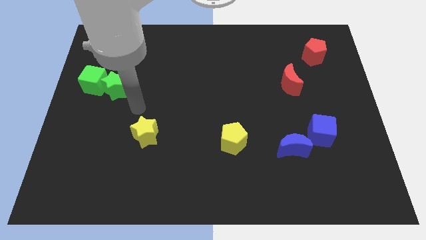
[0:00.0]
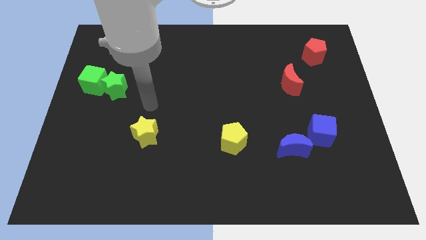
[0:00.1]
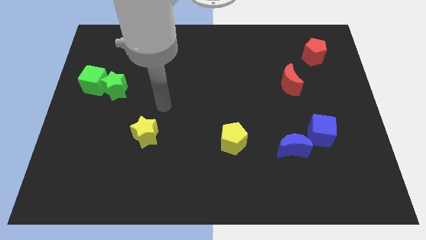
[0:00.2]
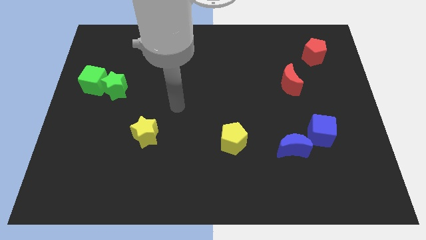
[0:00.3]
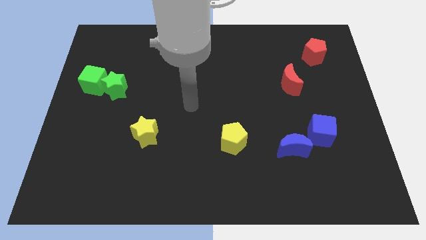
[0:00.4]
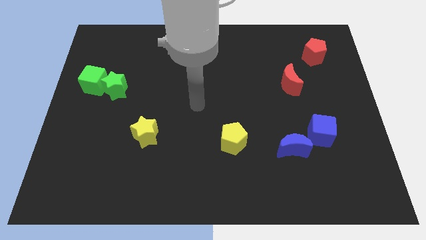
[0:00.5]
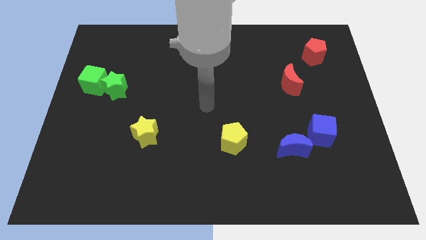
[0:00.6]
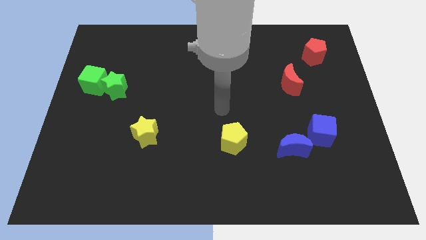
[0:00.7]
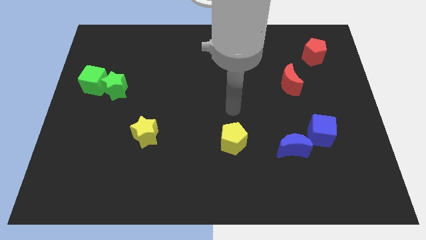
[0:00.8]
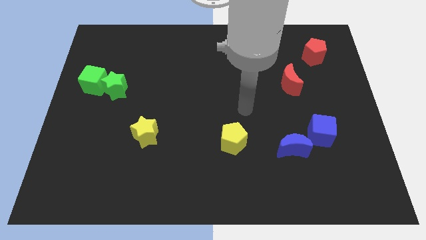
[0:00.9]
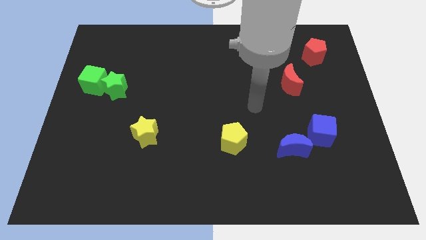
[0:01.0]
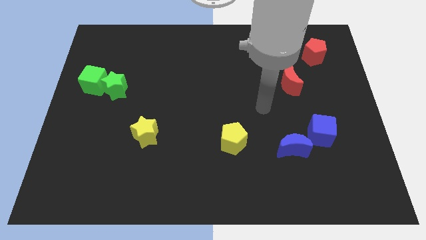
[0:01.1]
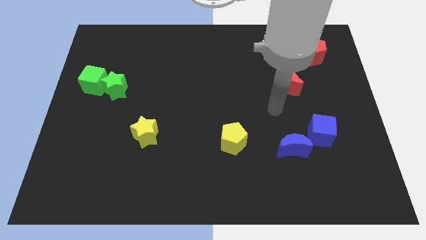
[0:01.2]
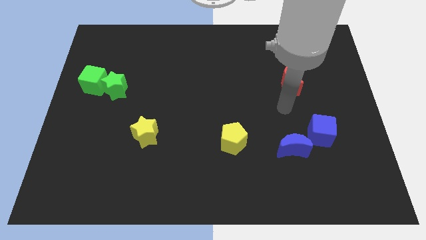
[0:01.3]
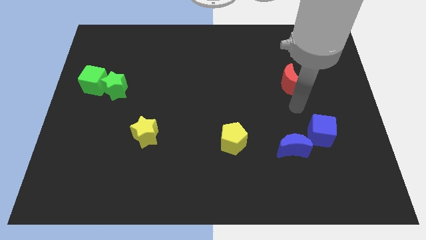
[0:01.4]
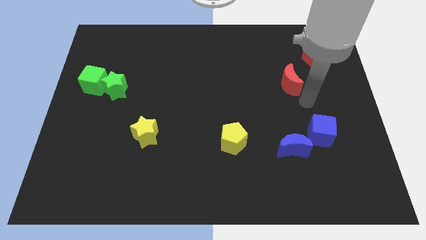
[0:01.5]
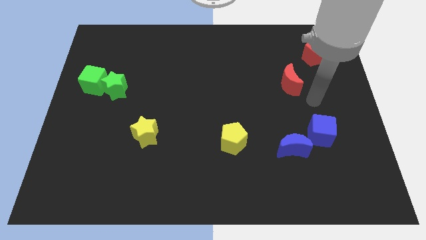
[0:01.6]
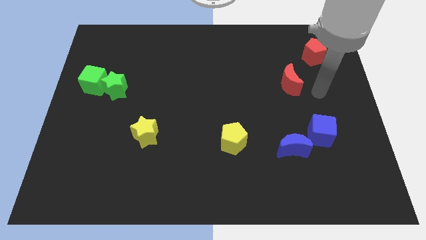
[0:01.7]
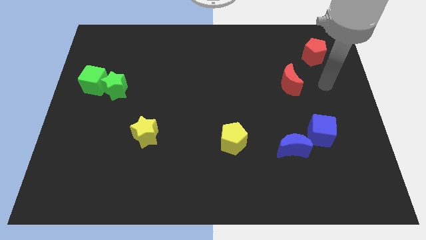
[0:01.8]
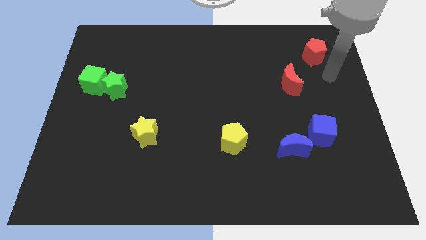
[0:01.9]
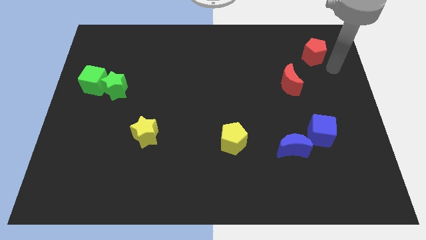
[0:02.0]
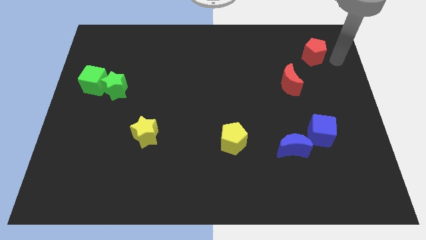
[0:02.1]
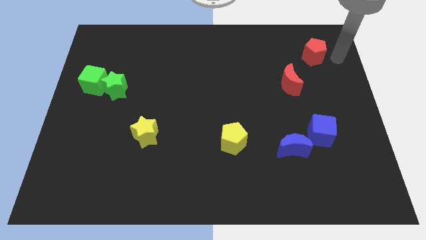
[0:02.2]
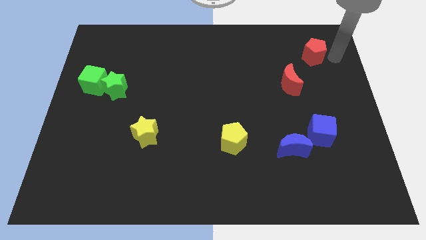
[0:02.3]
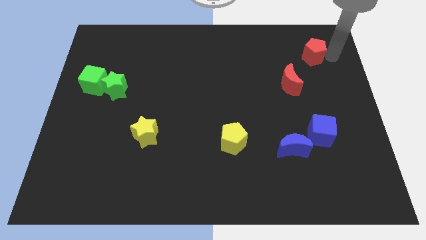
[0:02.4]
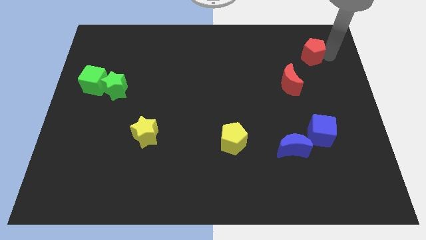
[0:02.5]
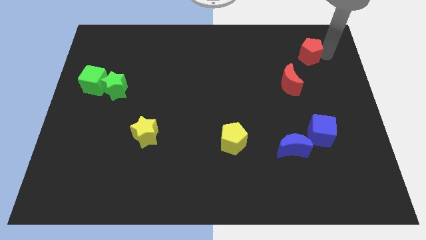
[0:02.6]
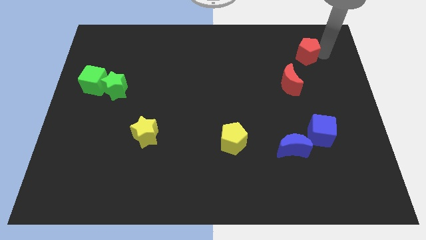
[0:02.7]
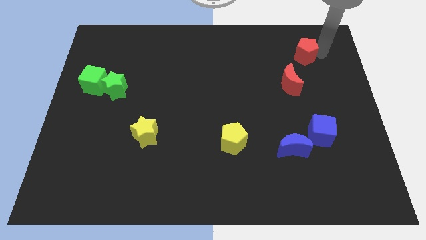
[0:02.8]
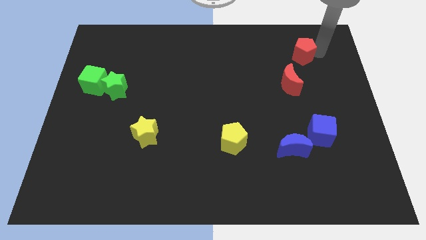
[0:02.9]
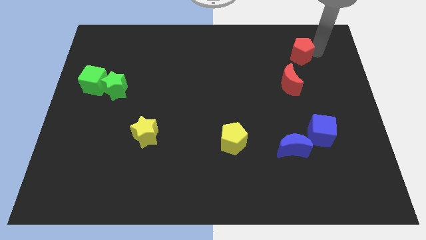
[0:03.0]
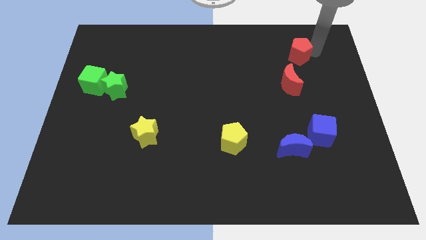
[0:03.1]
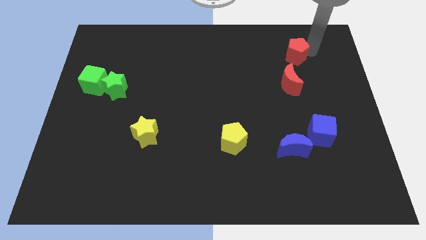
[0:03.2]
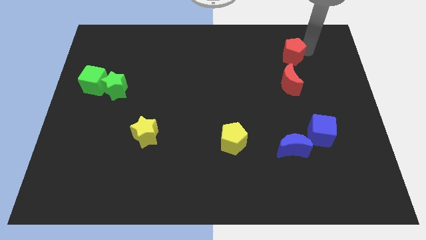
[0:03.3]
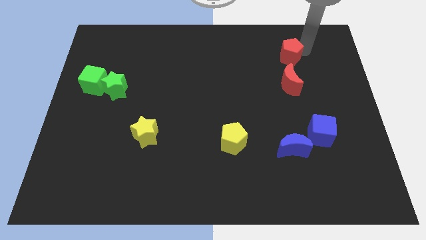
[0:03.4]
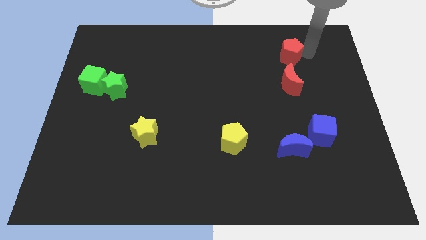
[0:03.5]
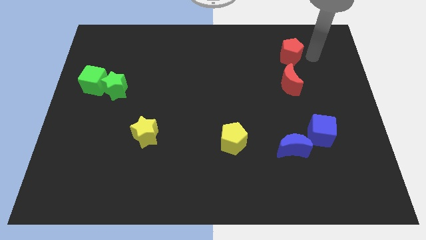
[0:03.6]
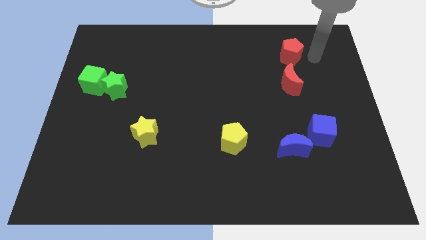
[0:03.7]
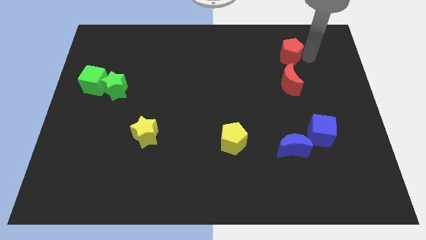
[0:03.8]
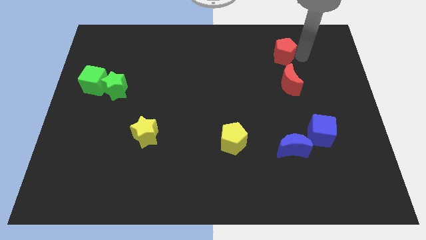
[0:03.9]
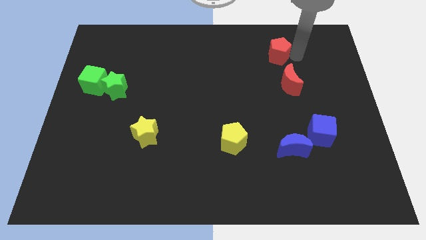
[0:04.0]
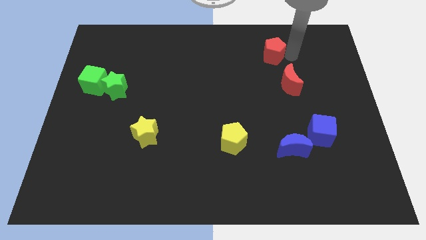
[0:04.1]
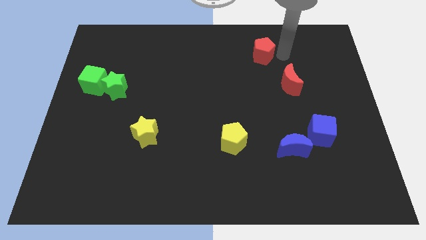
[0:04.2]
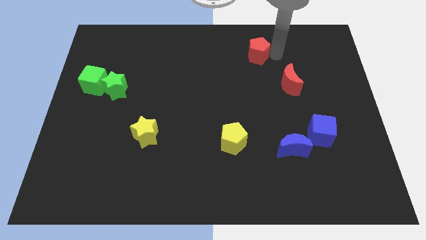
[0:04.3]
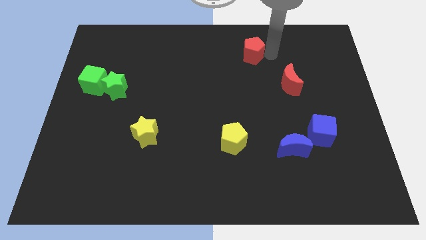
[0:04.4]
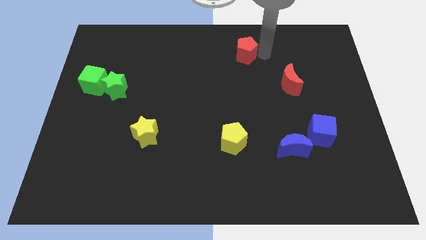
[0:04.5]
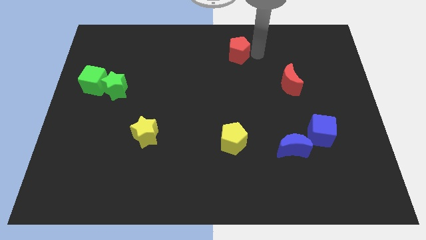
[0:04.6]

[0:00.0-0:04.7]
slide the red pentagon left

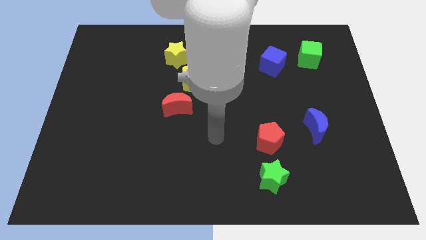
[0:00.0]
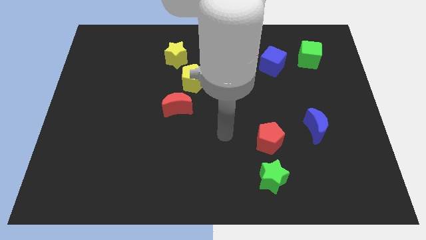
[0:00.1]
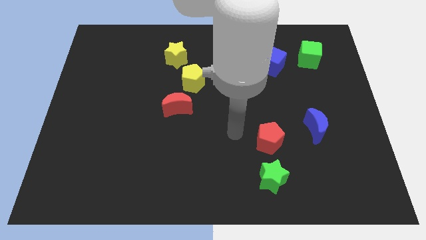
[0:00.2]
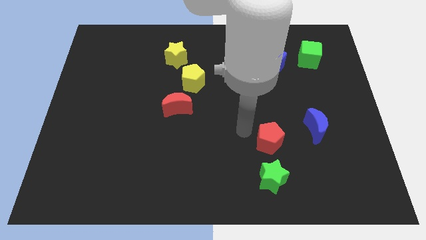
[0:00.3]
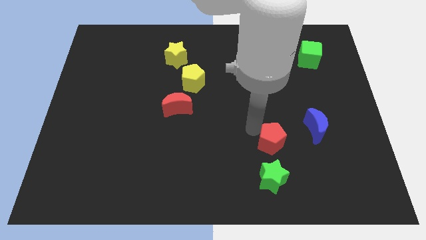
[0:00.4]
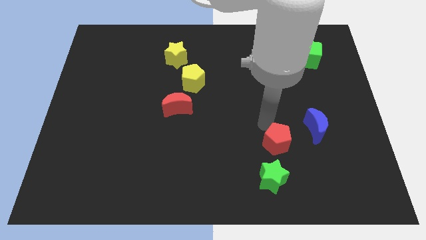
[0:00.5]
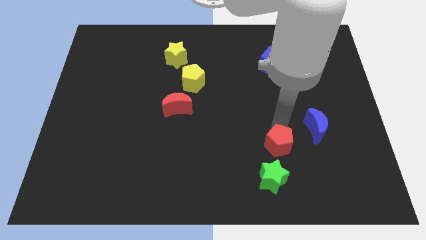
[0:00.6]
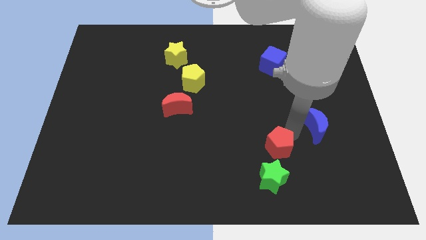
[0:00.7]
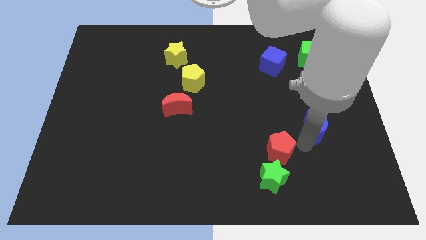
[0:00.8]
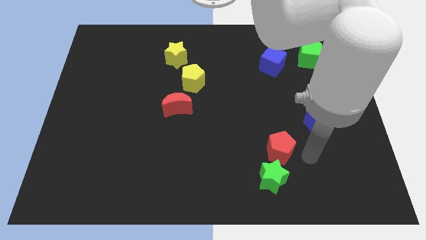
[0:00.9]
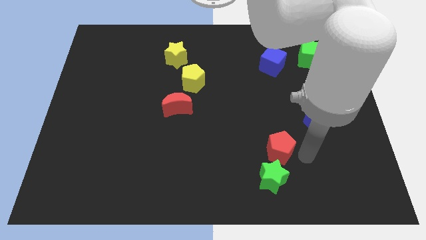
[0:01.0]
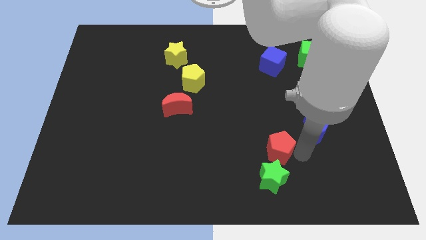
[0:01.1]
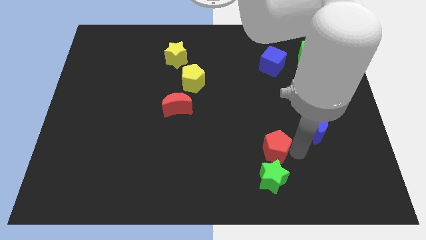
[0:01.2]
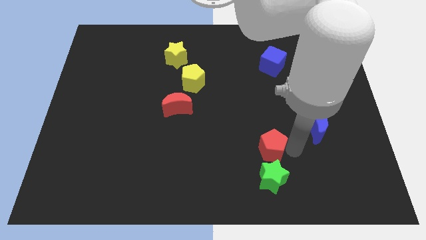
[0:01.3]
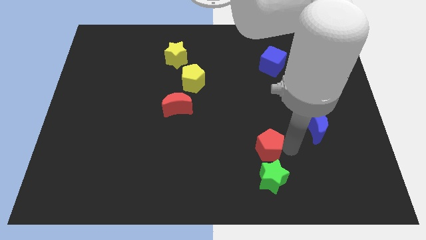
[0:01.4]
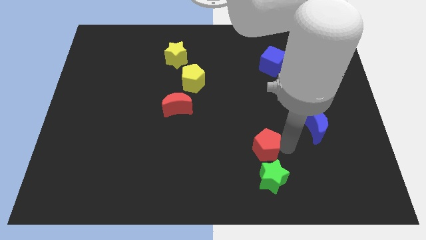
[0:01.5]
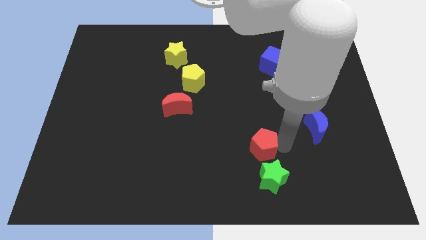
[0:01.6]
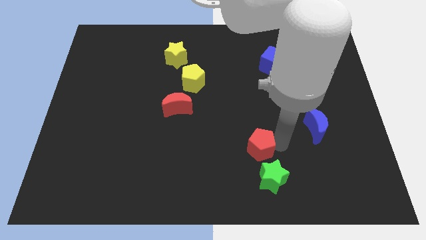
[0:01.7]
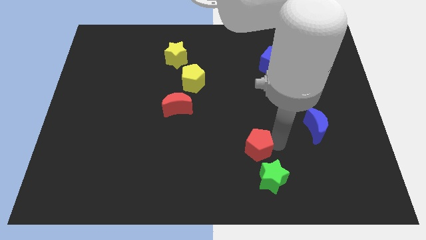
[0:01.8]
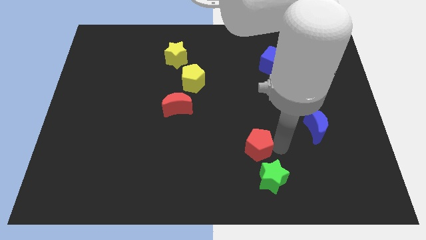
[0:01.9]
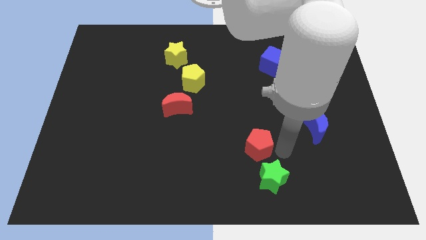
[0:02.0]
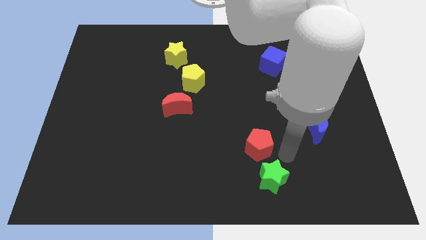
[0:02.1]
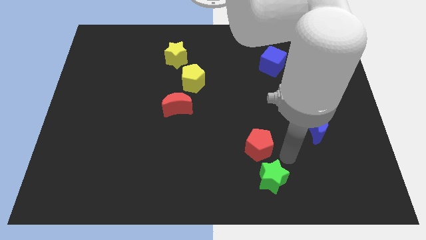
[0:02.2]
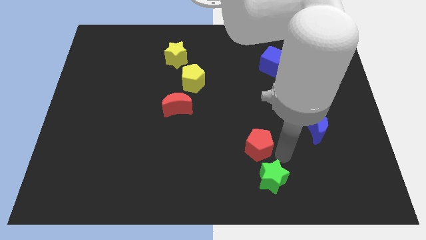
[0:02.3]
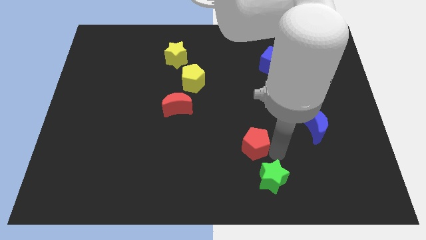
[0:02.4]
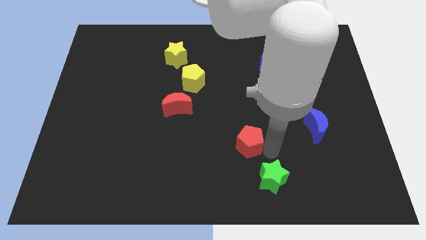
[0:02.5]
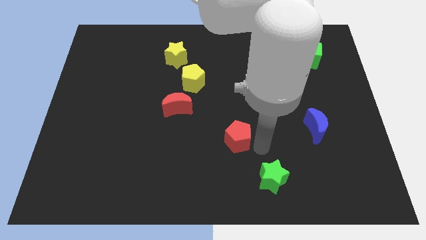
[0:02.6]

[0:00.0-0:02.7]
move the red pentagon to the left a little bit

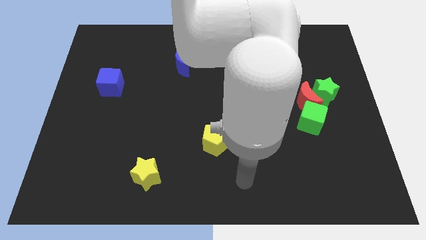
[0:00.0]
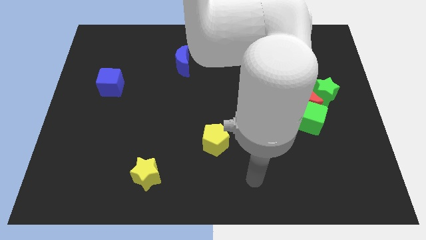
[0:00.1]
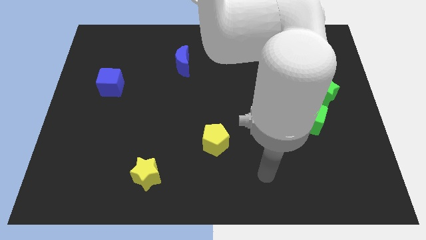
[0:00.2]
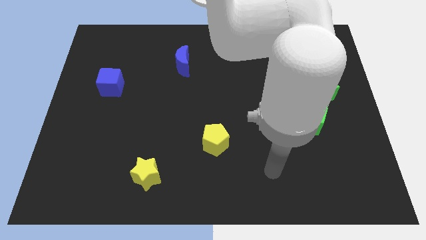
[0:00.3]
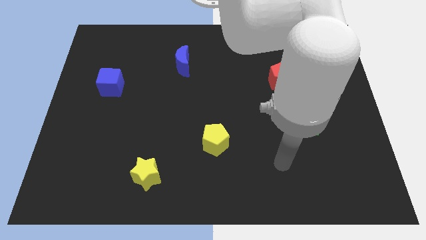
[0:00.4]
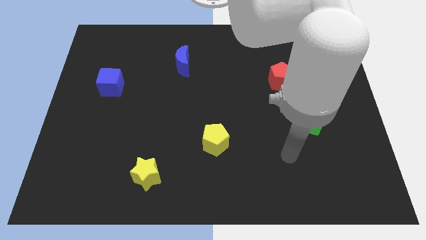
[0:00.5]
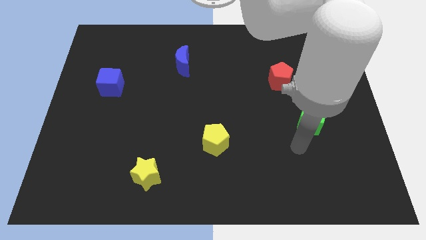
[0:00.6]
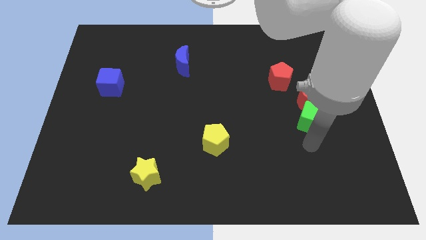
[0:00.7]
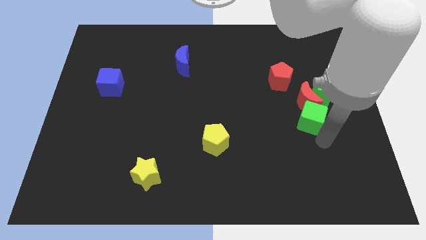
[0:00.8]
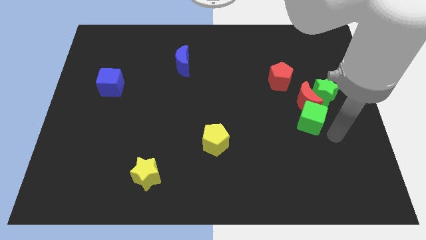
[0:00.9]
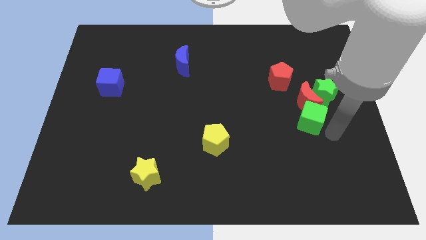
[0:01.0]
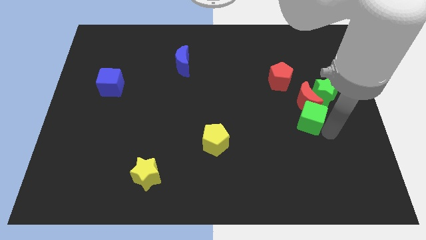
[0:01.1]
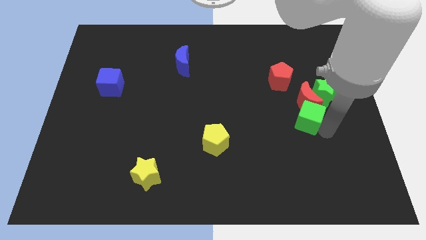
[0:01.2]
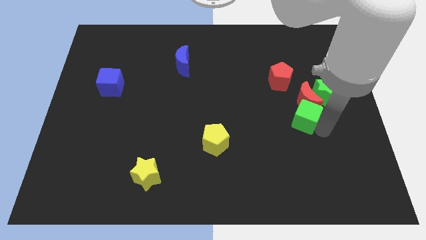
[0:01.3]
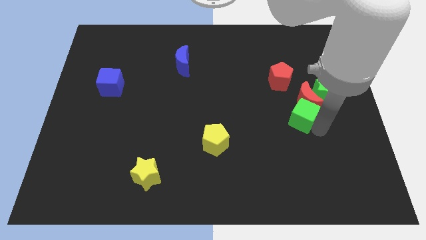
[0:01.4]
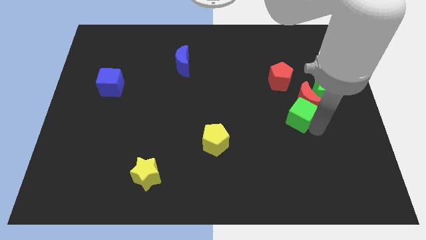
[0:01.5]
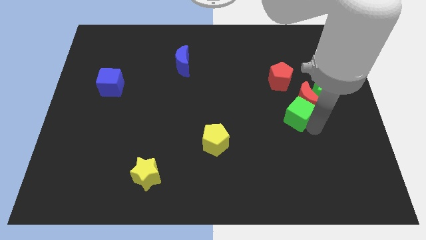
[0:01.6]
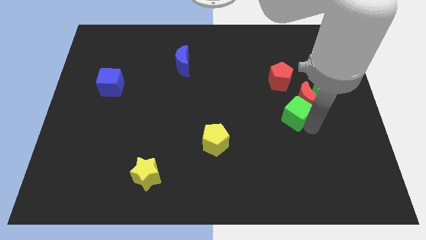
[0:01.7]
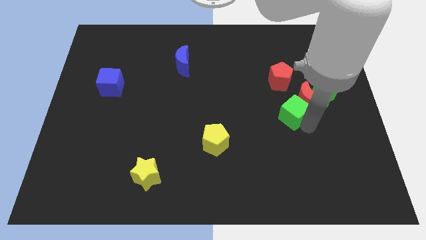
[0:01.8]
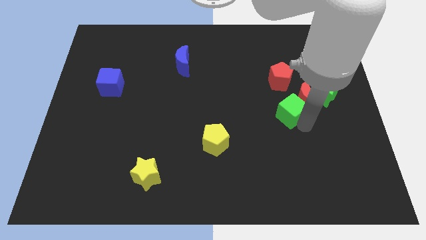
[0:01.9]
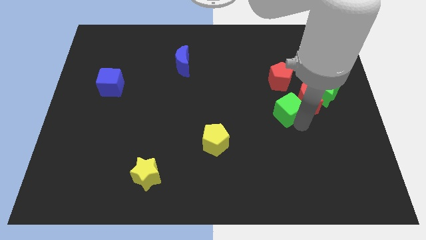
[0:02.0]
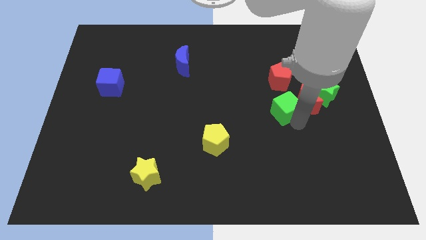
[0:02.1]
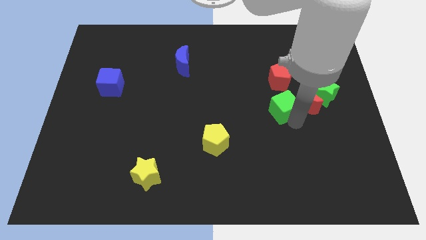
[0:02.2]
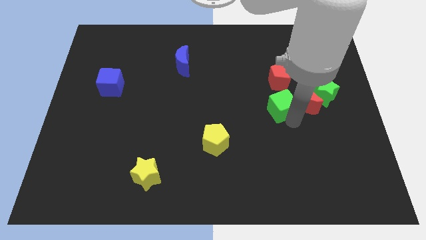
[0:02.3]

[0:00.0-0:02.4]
slide the green cube a little bit up and left
